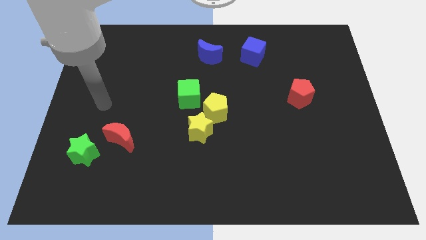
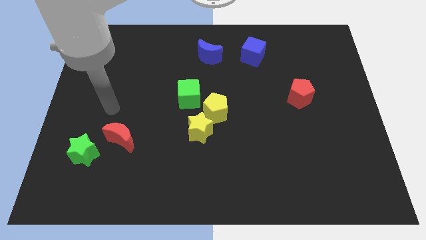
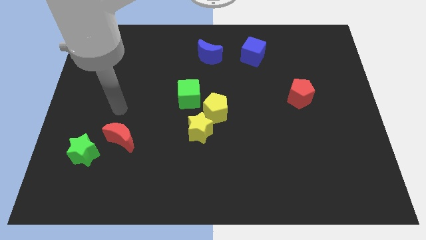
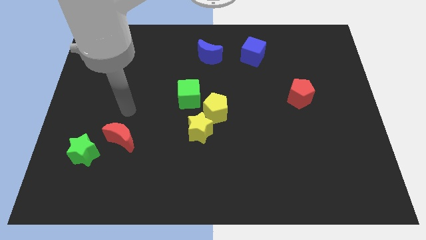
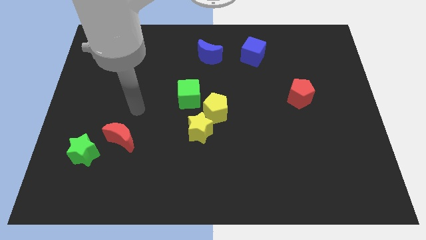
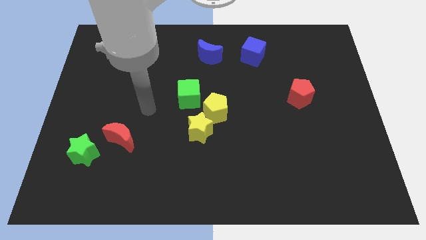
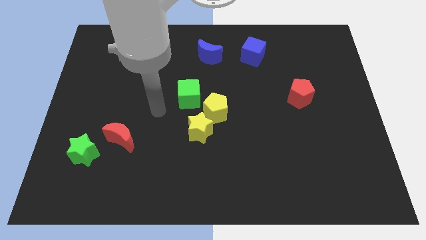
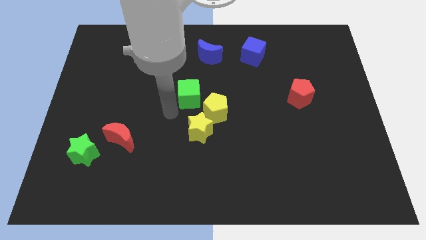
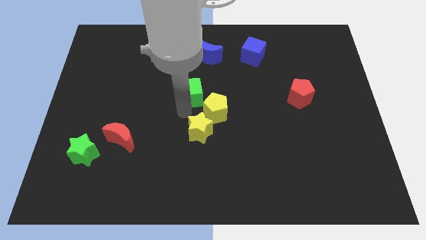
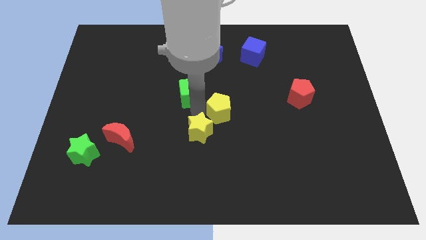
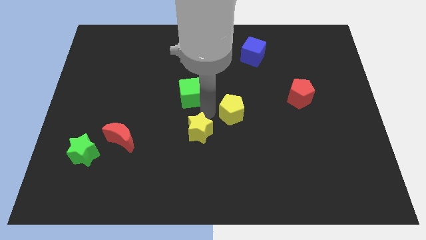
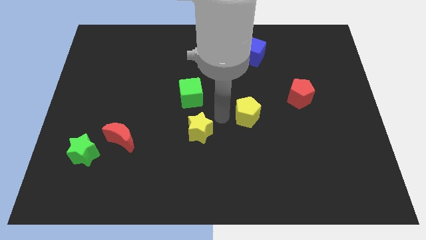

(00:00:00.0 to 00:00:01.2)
move the yellow star away from the yellow pentagon

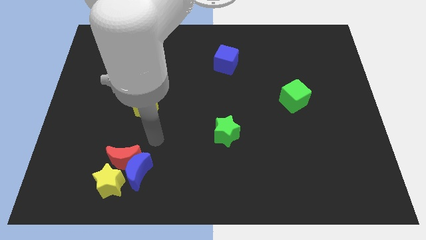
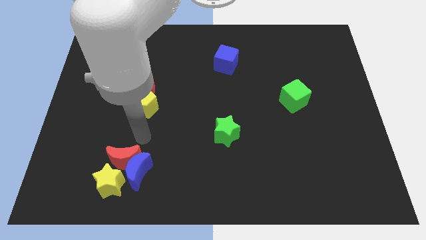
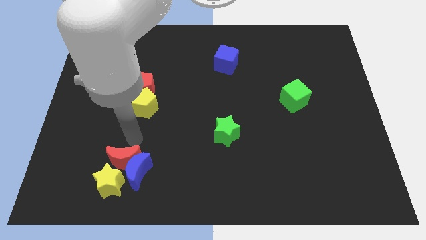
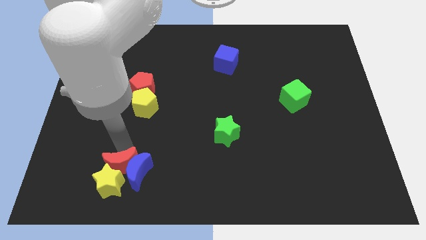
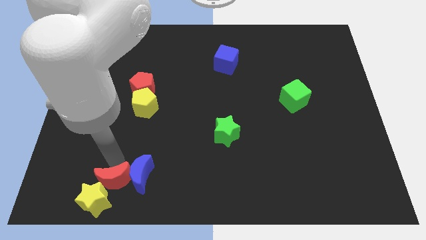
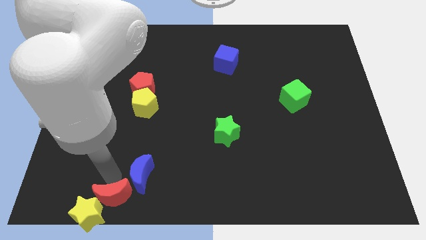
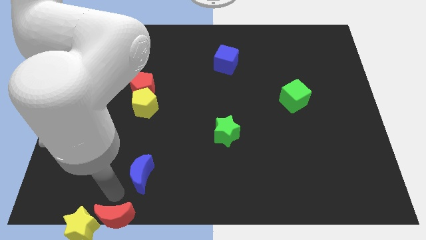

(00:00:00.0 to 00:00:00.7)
move the blue moon away from the red moon and yellow star

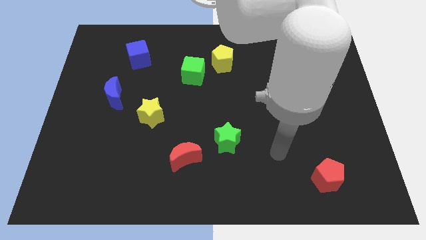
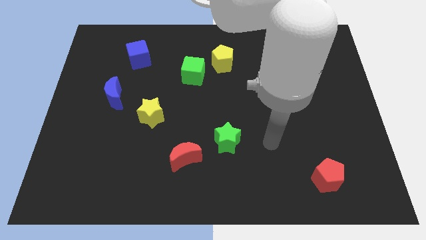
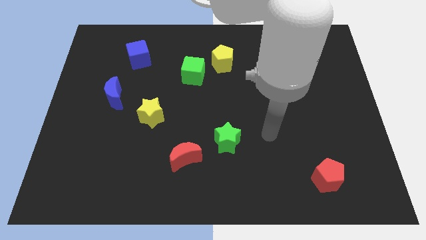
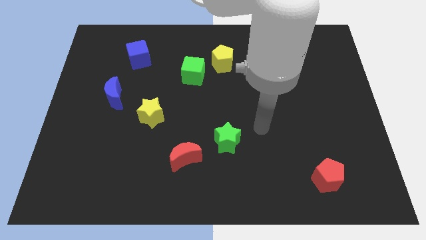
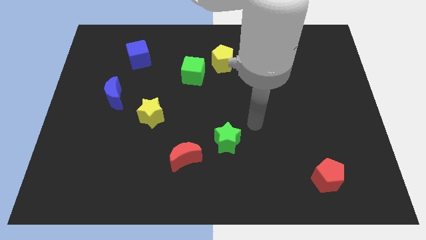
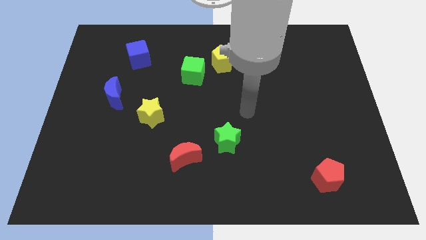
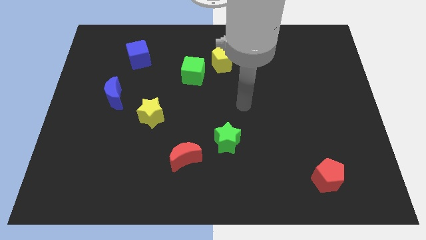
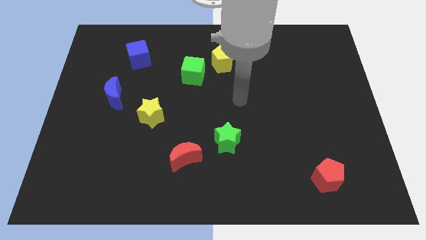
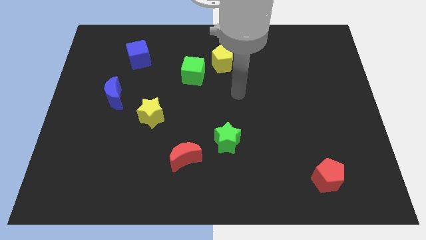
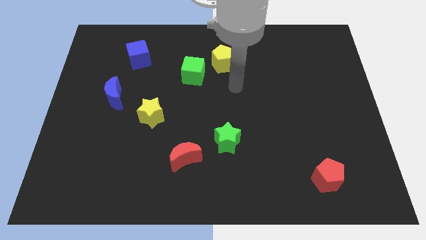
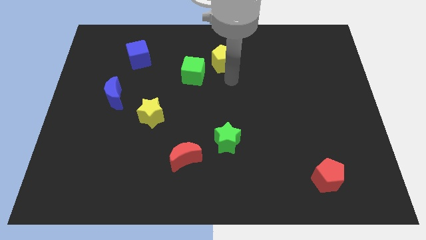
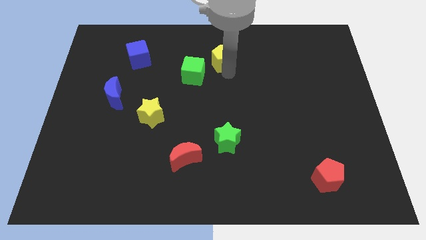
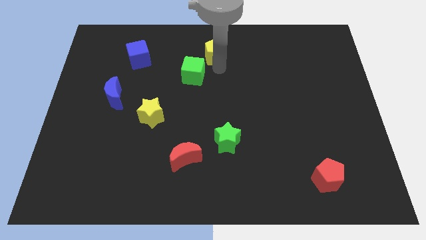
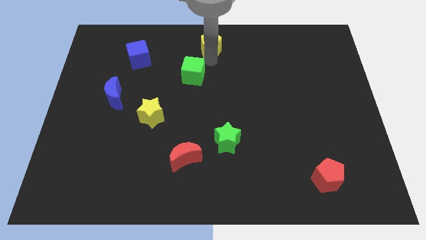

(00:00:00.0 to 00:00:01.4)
pull the green cube apart from the yellow pentagon

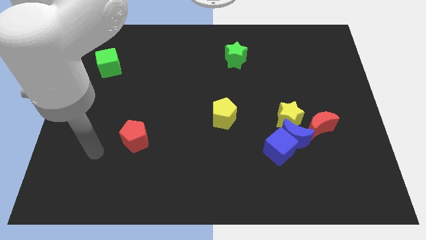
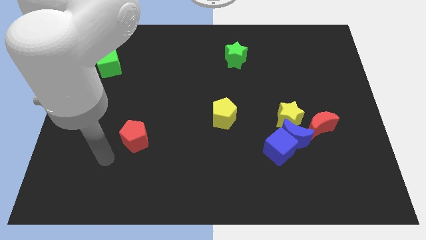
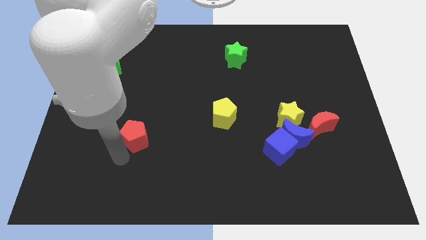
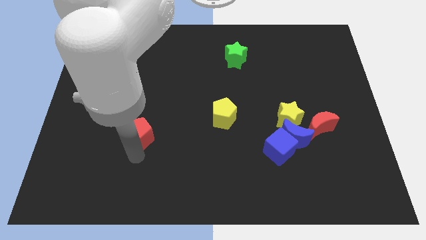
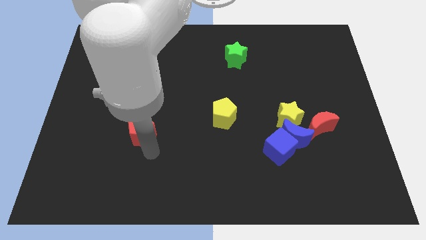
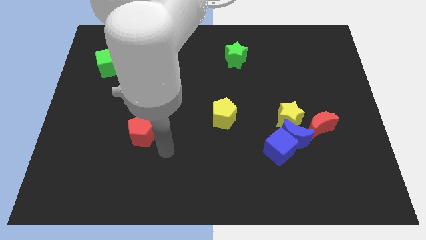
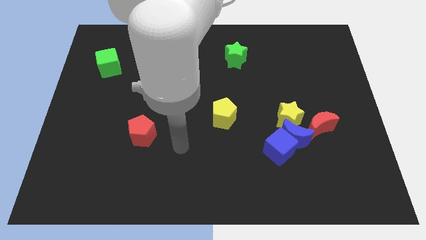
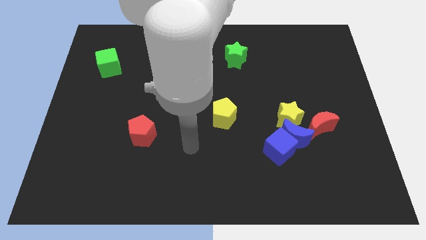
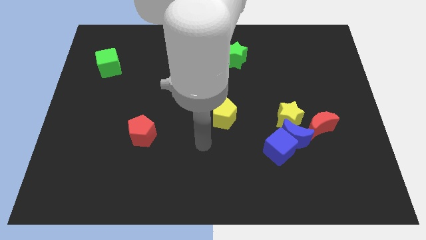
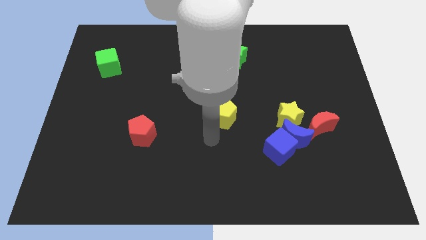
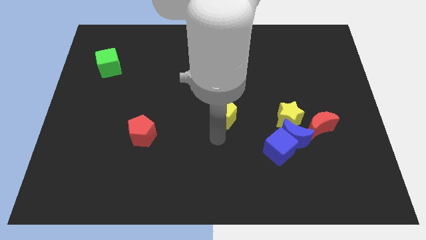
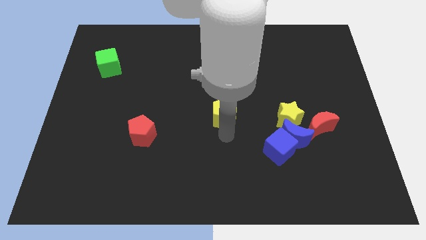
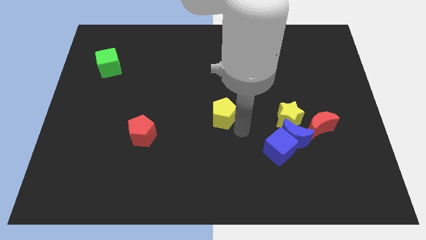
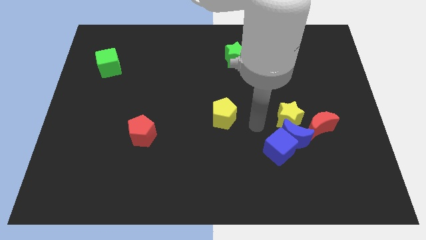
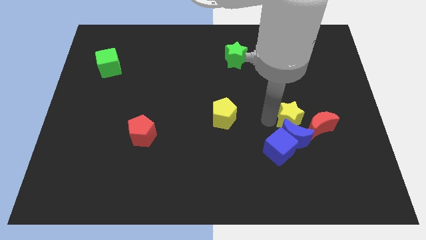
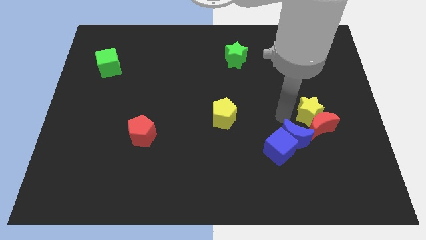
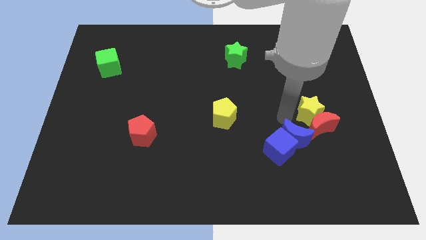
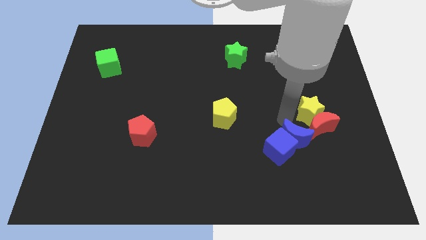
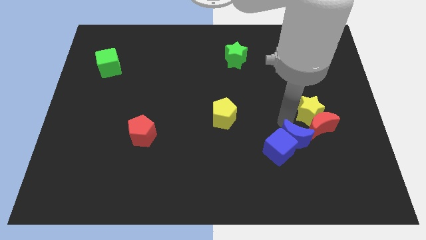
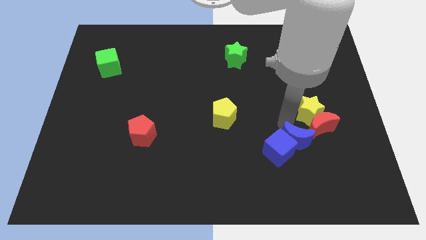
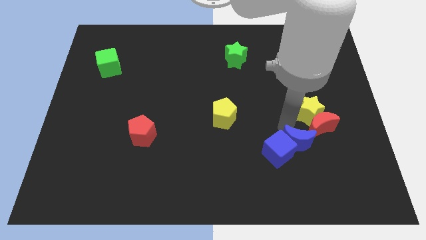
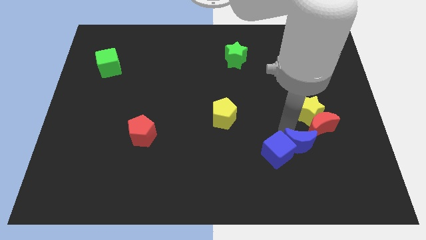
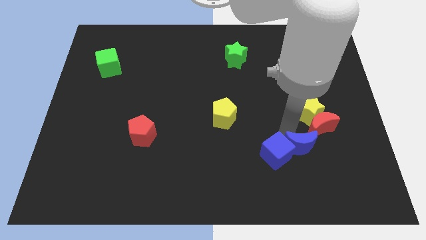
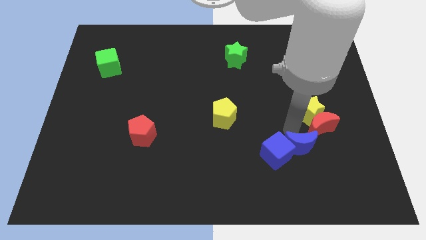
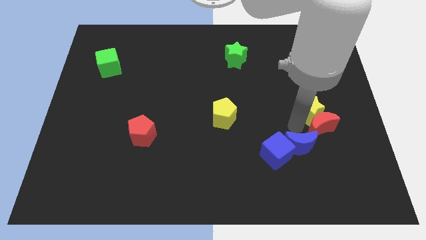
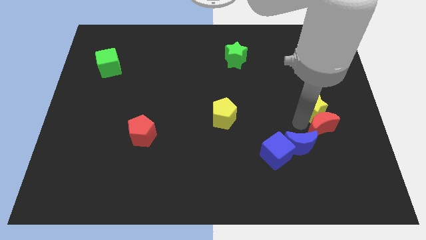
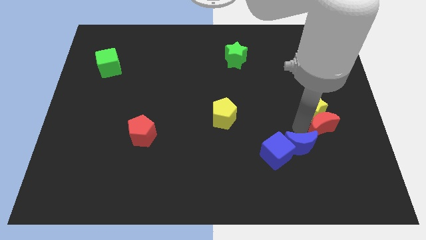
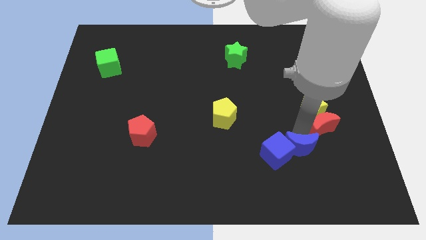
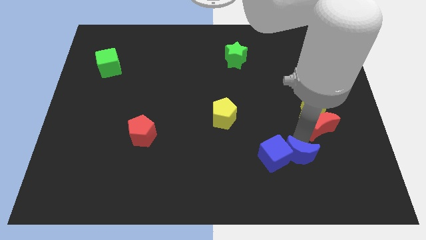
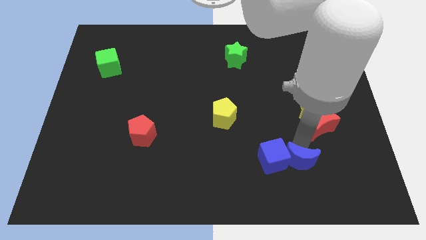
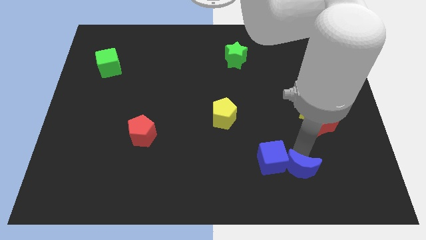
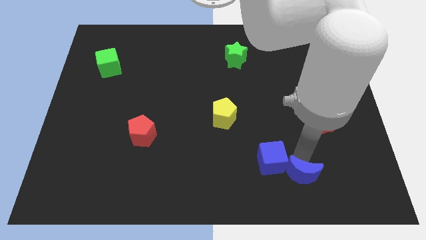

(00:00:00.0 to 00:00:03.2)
move the blue moon away from the blue cube, yellow star, and red moon

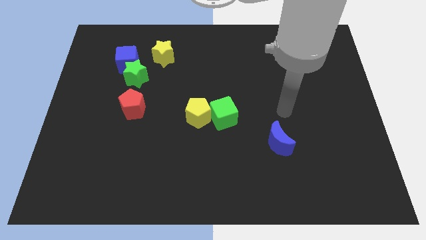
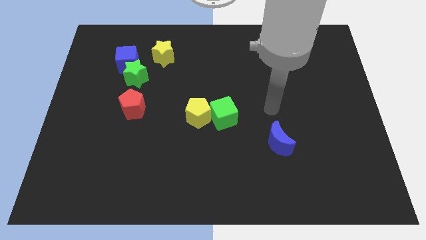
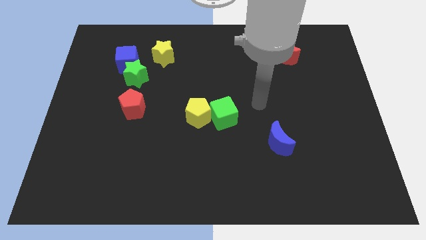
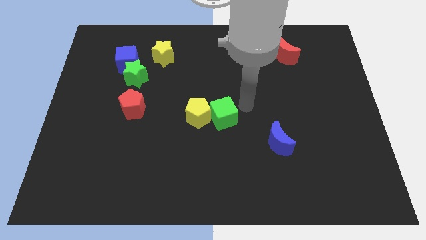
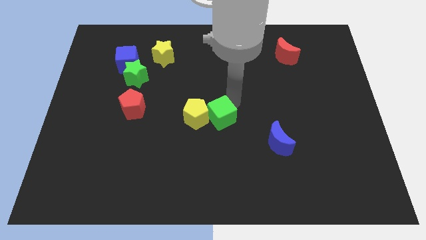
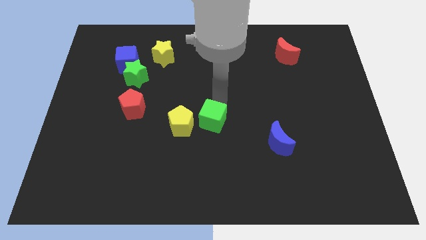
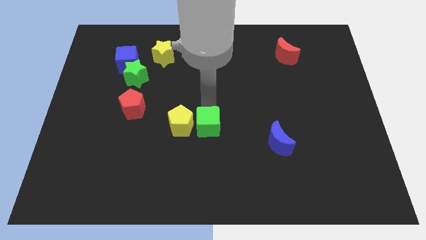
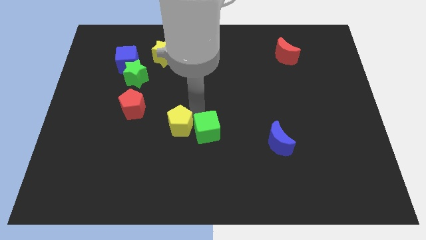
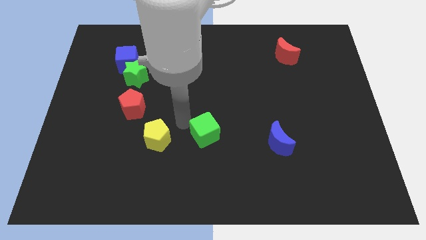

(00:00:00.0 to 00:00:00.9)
separate the green cube from the yellow pentagon

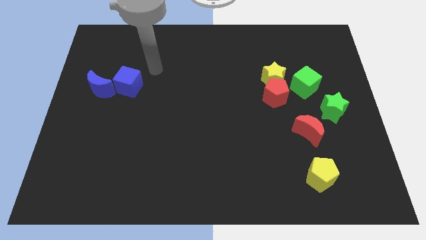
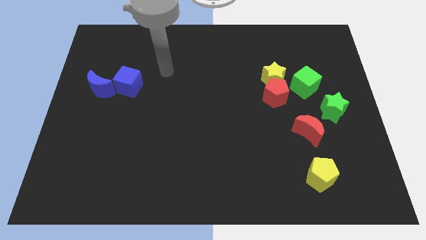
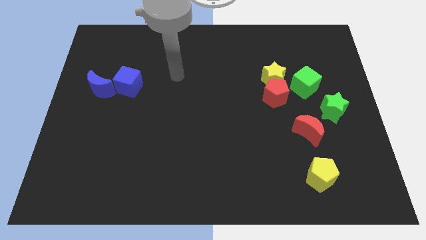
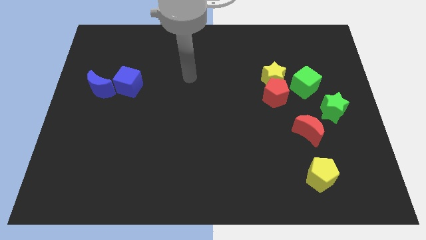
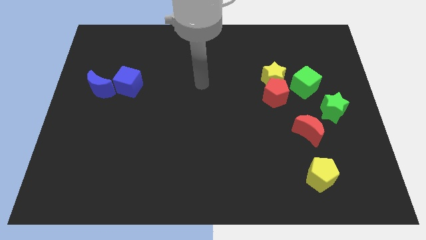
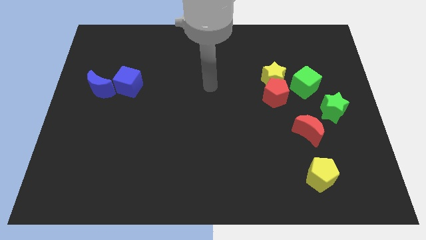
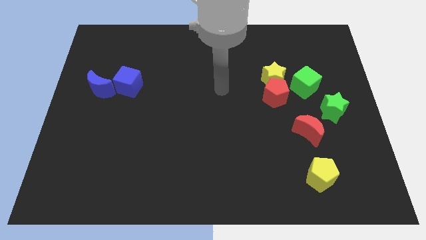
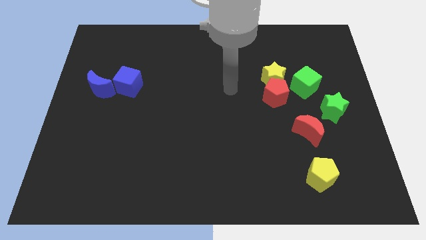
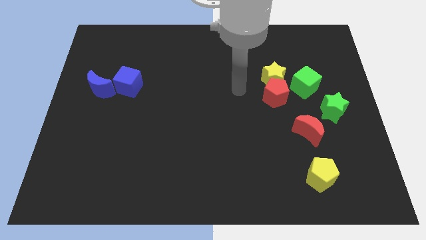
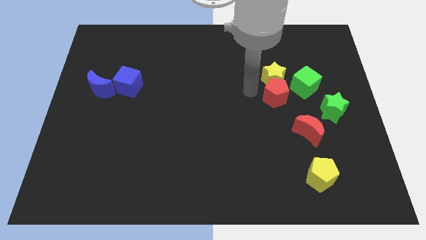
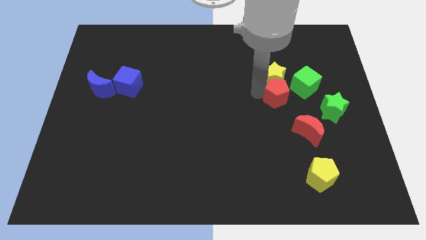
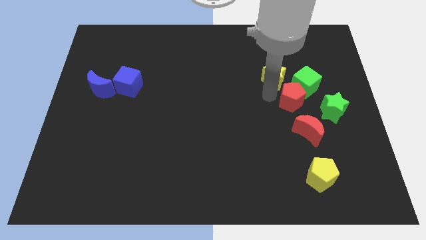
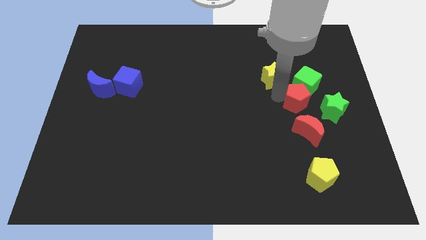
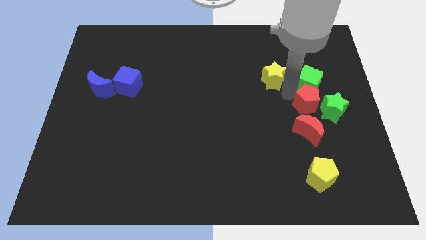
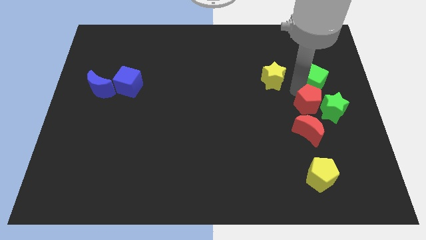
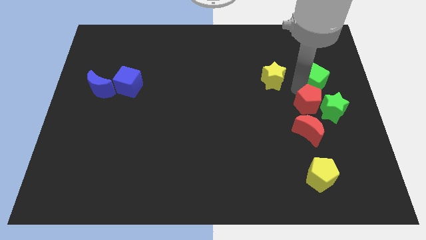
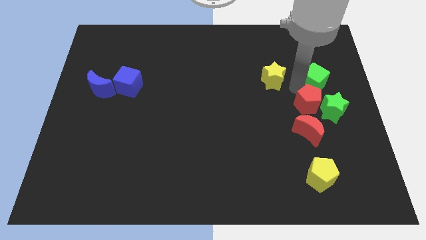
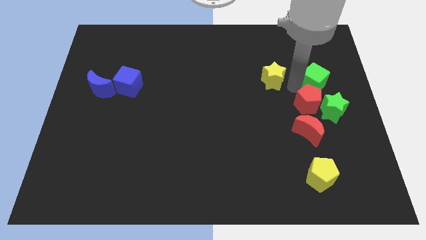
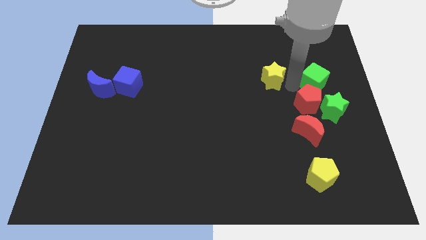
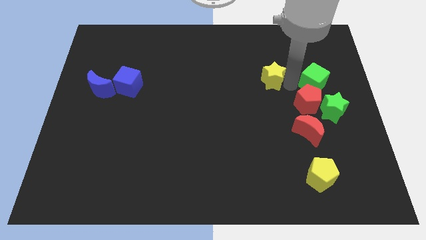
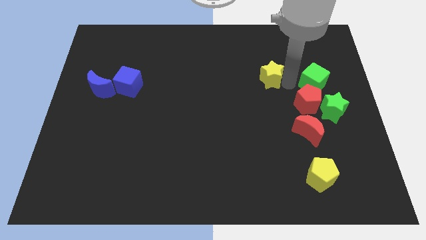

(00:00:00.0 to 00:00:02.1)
pull the yellow star apart from the red pentagon and green cube
